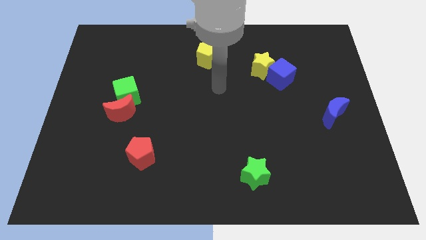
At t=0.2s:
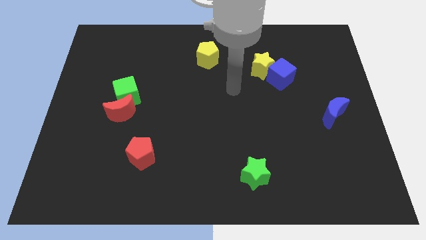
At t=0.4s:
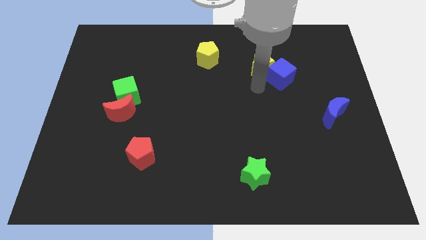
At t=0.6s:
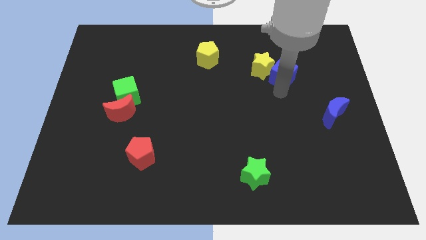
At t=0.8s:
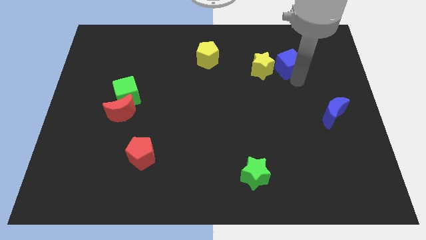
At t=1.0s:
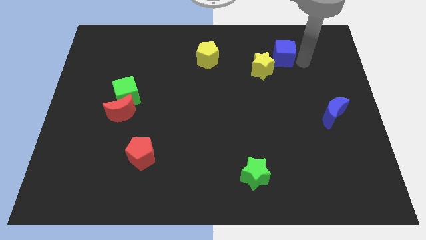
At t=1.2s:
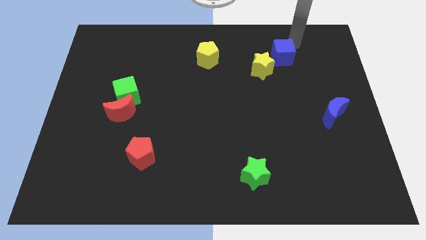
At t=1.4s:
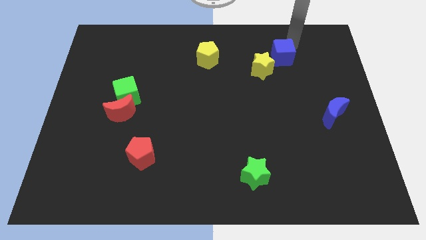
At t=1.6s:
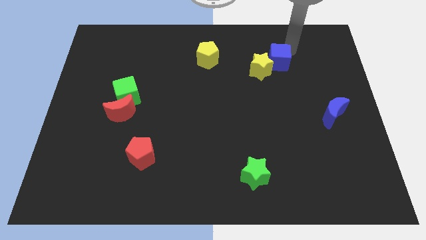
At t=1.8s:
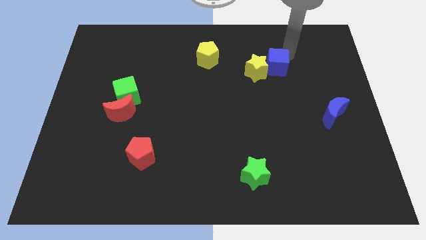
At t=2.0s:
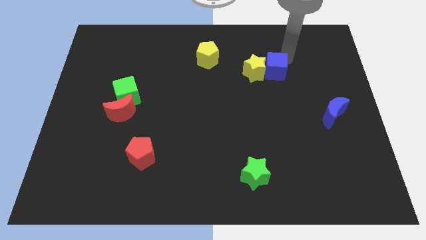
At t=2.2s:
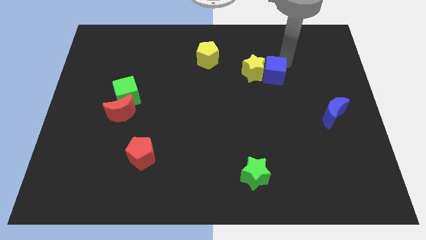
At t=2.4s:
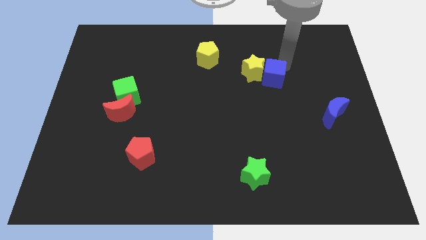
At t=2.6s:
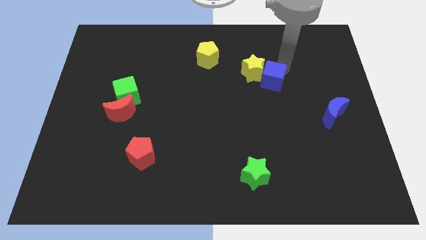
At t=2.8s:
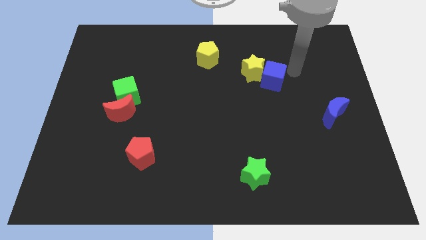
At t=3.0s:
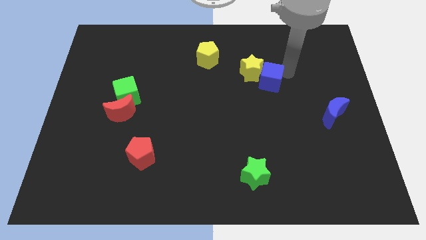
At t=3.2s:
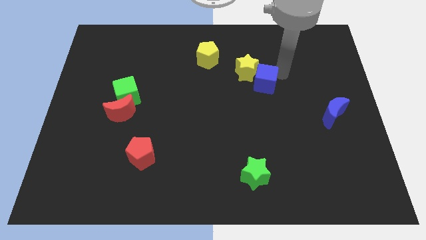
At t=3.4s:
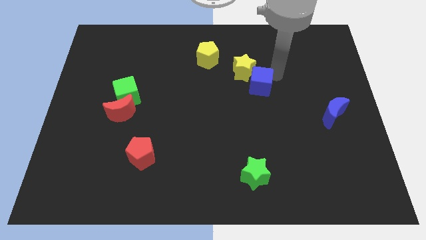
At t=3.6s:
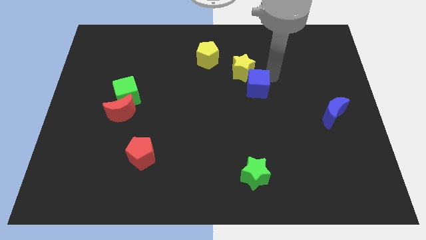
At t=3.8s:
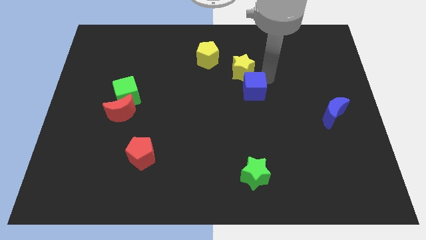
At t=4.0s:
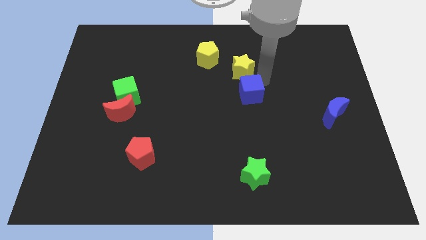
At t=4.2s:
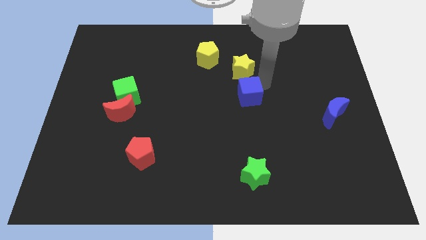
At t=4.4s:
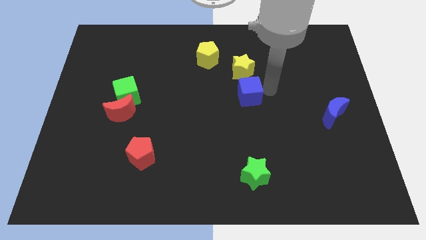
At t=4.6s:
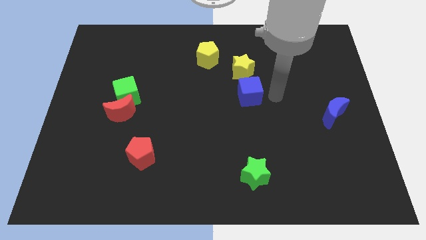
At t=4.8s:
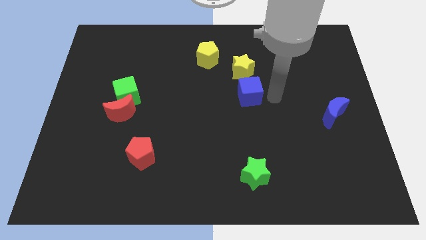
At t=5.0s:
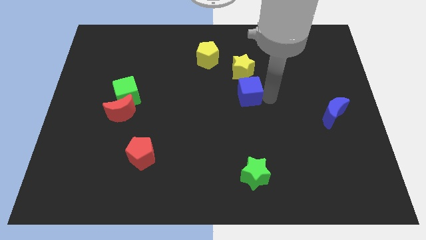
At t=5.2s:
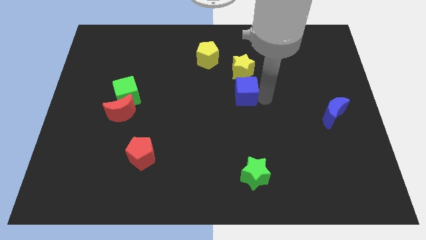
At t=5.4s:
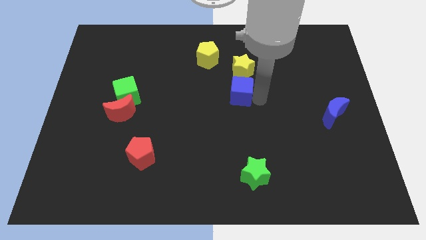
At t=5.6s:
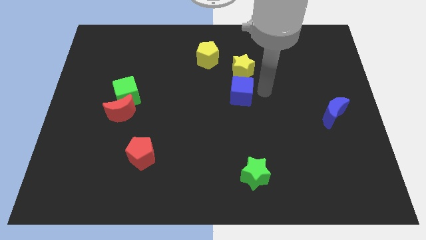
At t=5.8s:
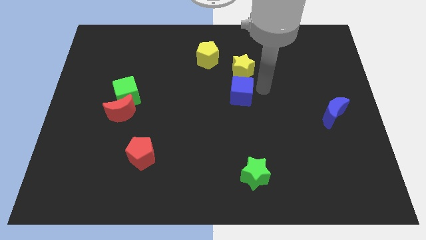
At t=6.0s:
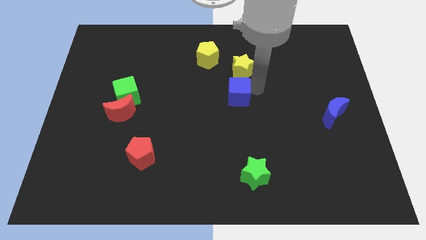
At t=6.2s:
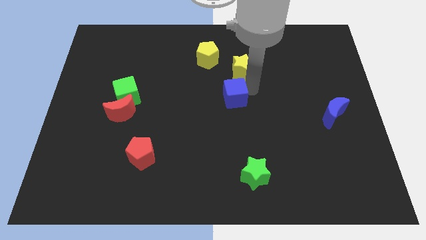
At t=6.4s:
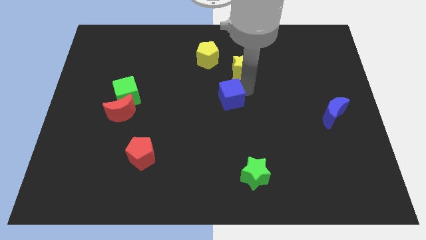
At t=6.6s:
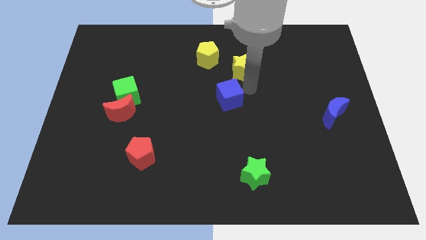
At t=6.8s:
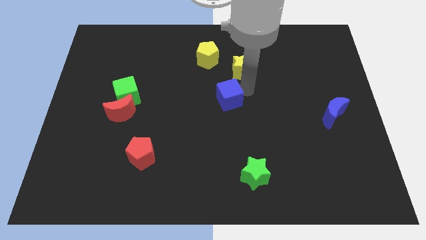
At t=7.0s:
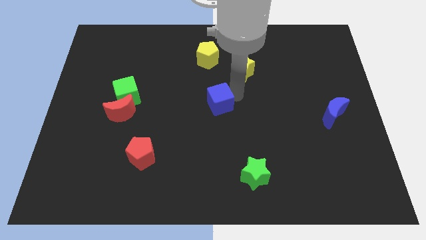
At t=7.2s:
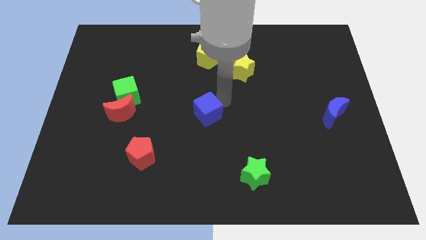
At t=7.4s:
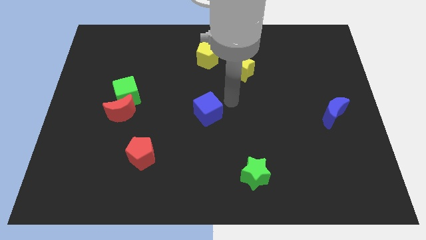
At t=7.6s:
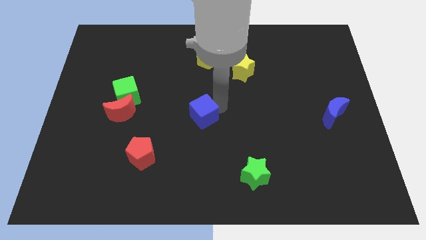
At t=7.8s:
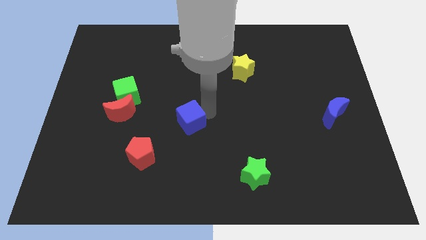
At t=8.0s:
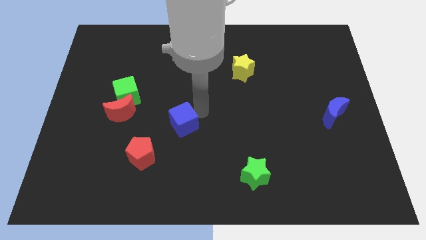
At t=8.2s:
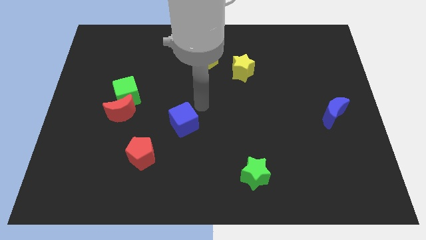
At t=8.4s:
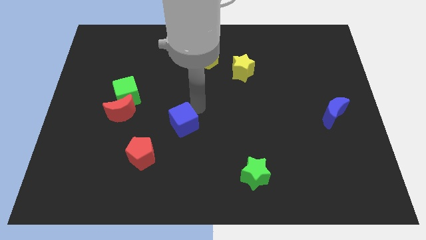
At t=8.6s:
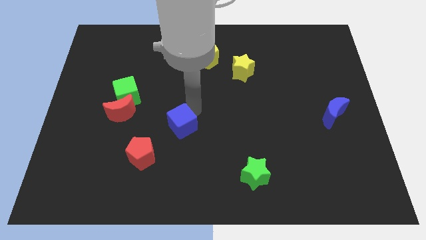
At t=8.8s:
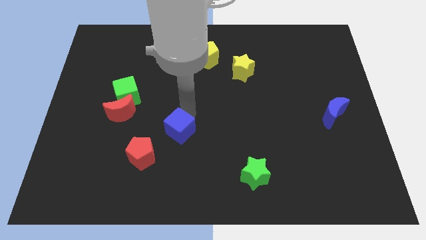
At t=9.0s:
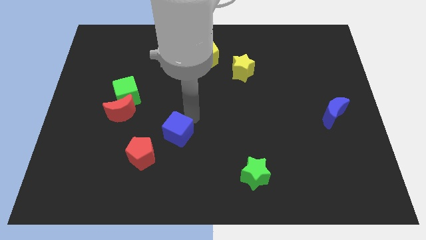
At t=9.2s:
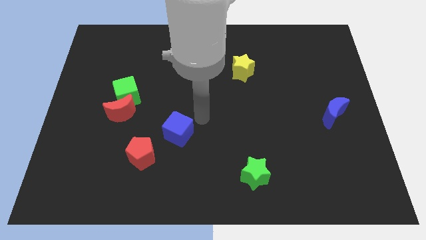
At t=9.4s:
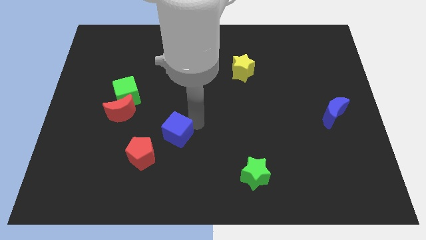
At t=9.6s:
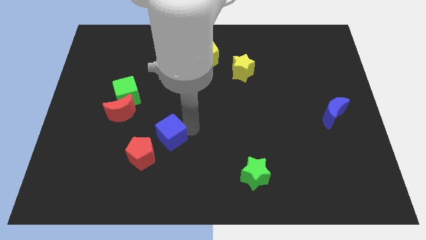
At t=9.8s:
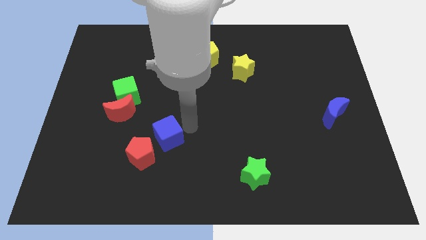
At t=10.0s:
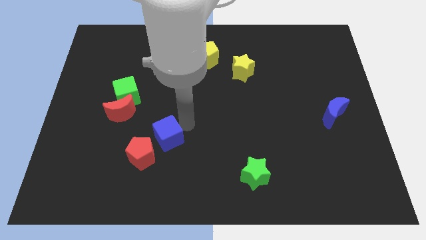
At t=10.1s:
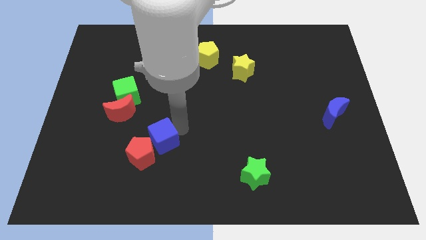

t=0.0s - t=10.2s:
move the blue cube to the red pentagon
